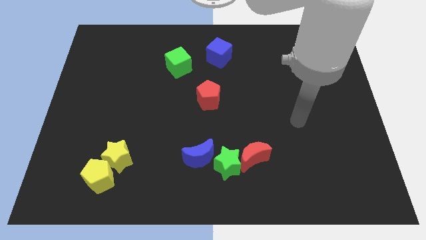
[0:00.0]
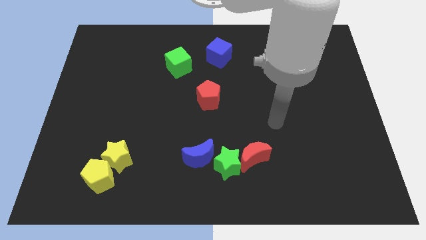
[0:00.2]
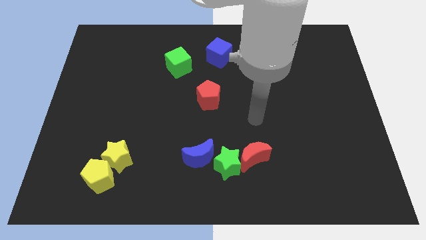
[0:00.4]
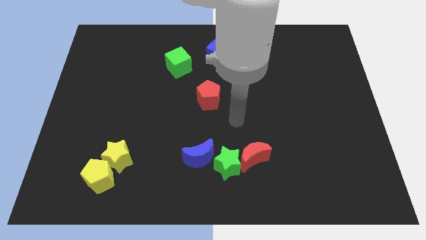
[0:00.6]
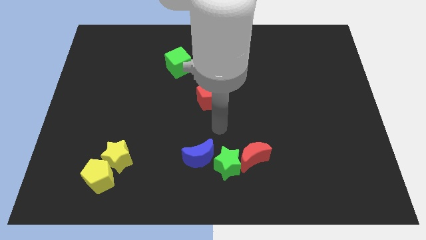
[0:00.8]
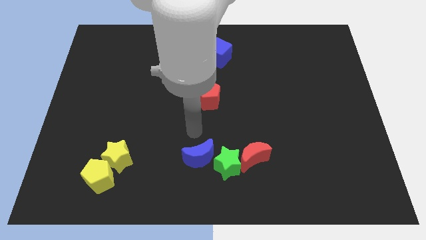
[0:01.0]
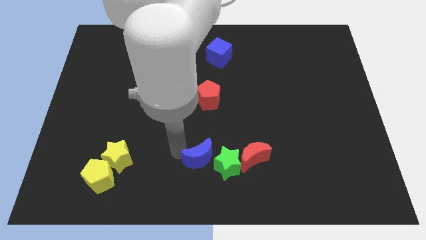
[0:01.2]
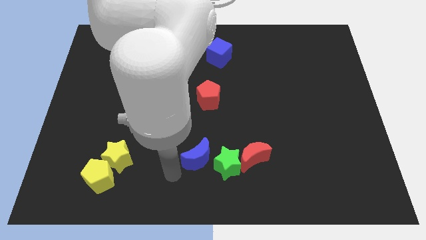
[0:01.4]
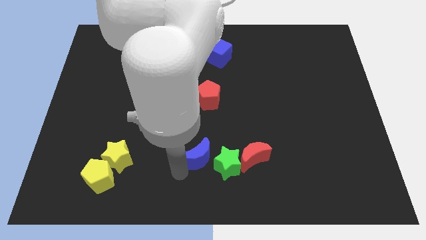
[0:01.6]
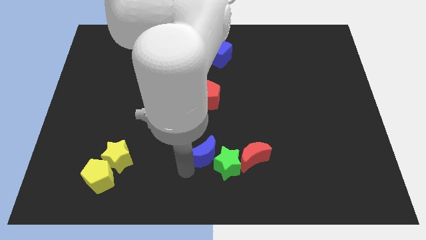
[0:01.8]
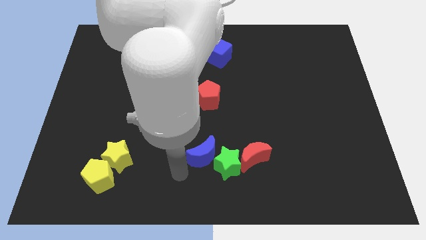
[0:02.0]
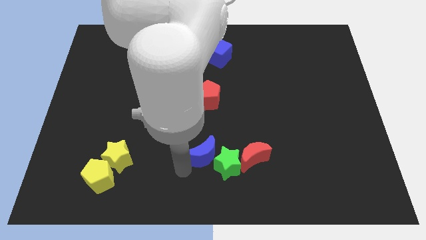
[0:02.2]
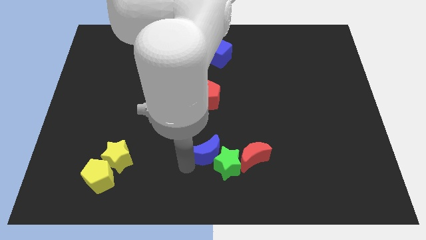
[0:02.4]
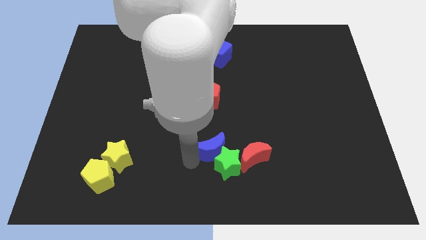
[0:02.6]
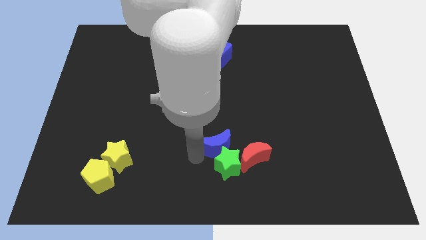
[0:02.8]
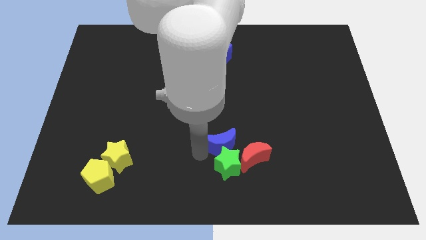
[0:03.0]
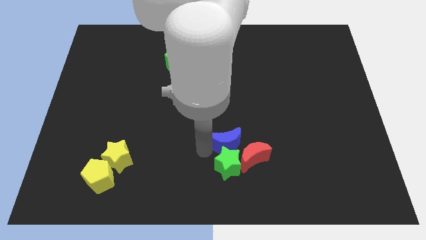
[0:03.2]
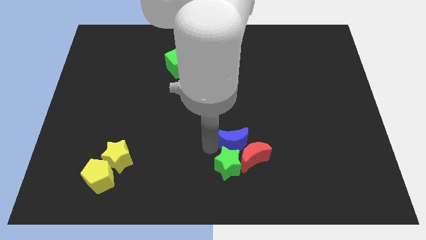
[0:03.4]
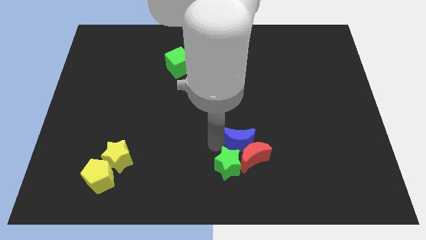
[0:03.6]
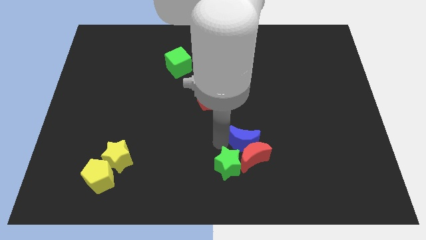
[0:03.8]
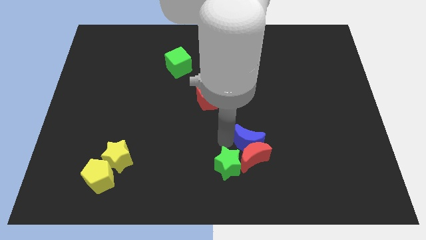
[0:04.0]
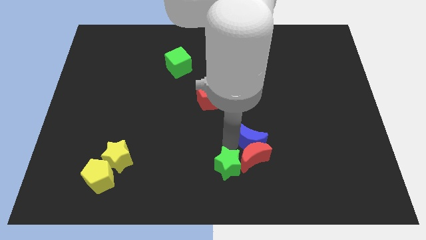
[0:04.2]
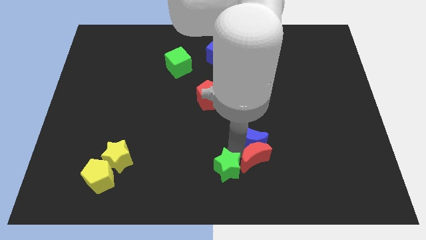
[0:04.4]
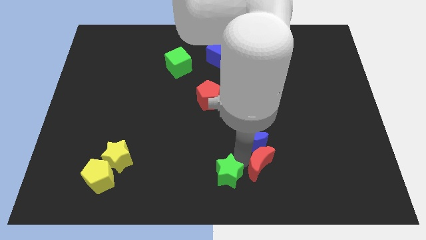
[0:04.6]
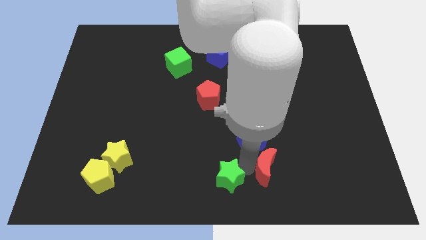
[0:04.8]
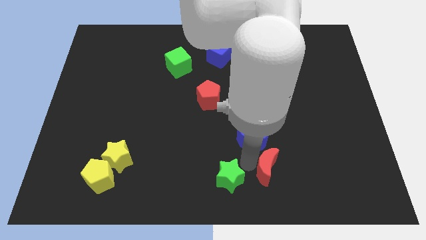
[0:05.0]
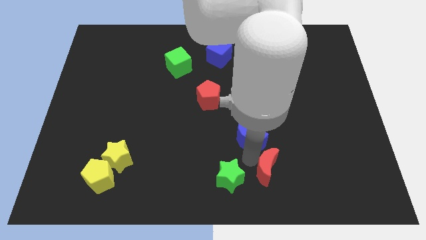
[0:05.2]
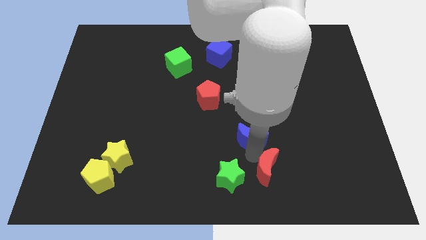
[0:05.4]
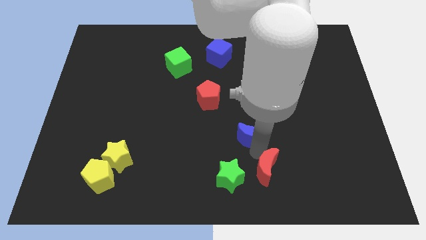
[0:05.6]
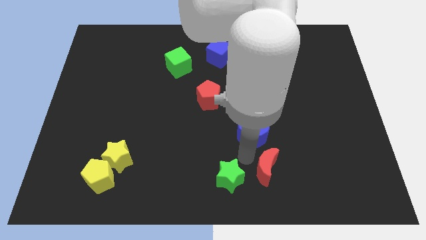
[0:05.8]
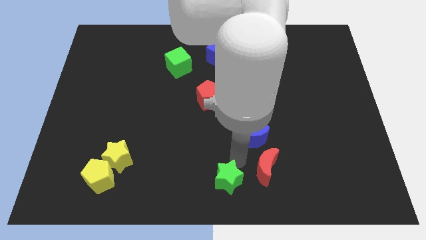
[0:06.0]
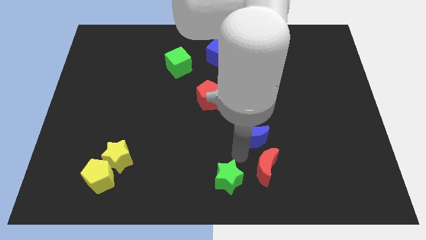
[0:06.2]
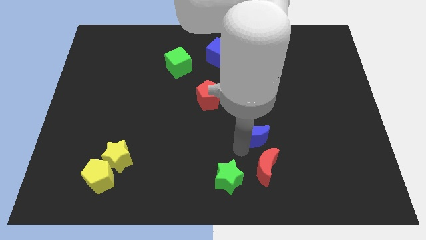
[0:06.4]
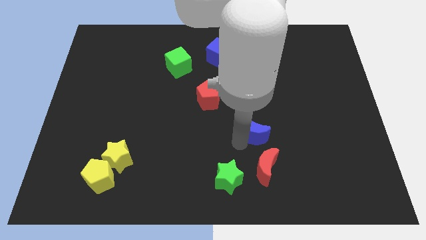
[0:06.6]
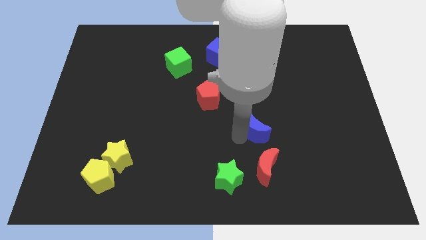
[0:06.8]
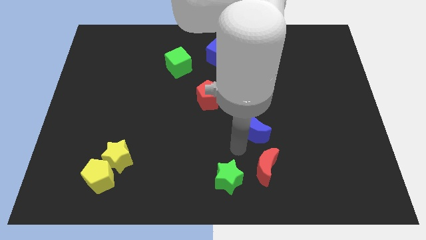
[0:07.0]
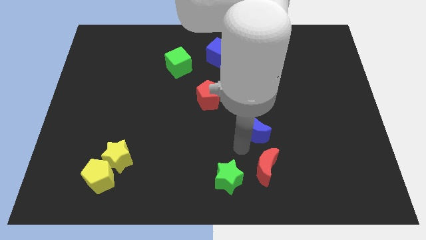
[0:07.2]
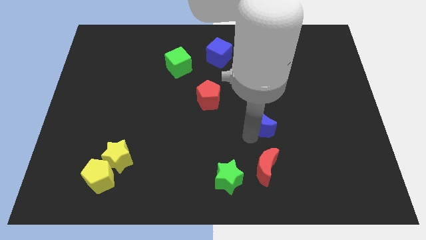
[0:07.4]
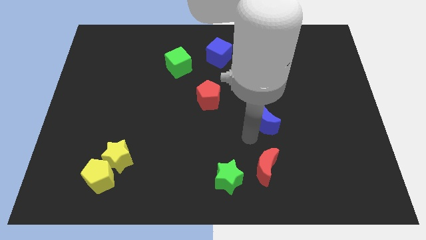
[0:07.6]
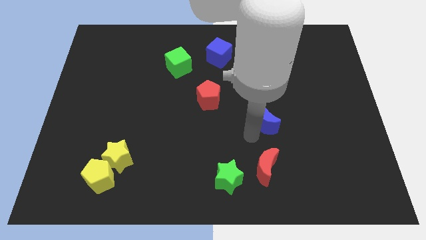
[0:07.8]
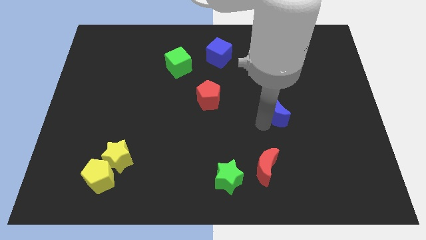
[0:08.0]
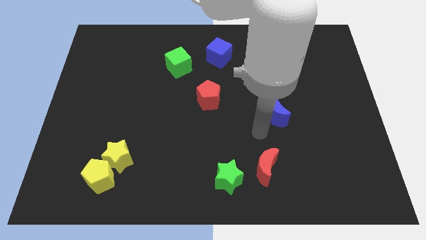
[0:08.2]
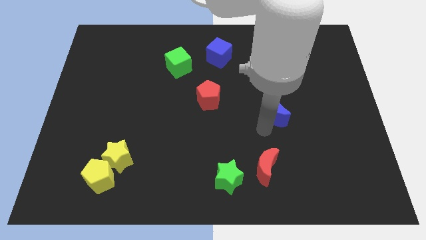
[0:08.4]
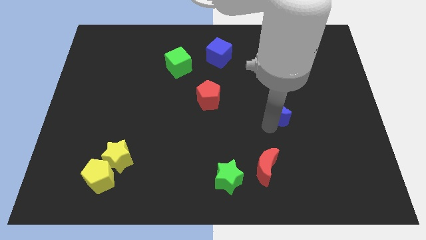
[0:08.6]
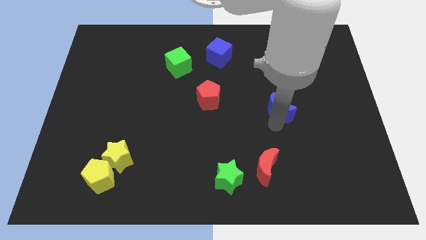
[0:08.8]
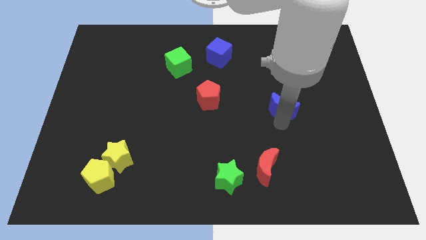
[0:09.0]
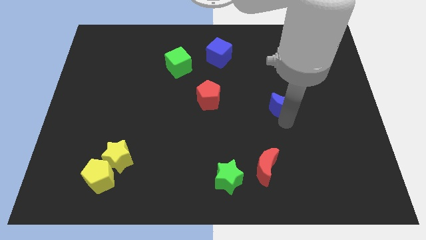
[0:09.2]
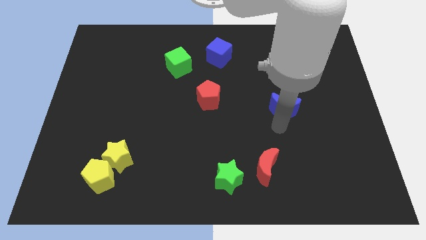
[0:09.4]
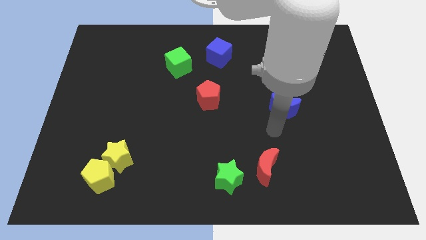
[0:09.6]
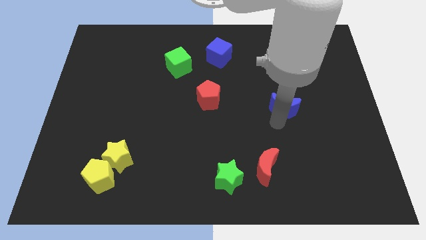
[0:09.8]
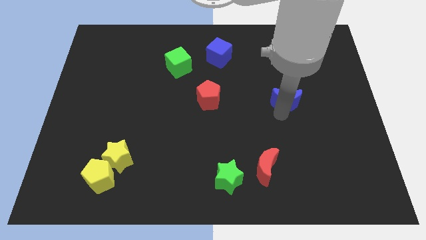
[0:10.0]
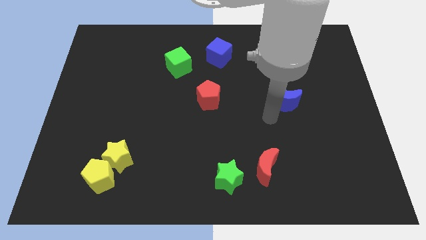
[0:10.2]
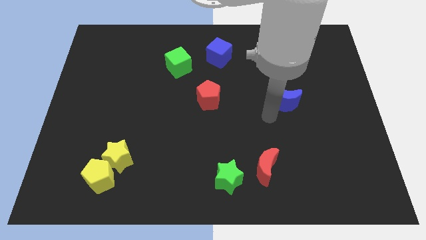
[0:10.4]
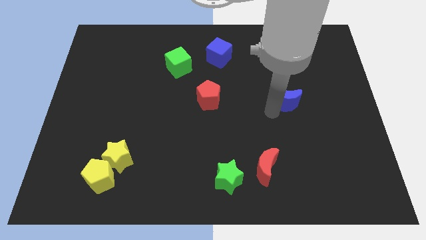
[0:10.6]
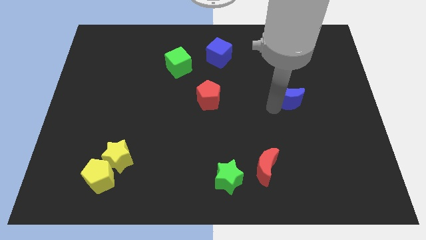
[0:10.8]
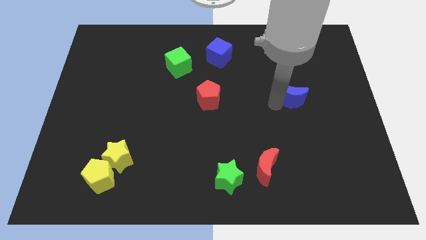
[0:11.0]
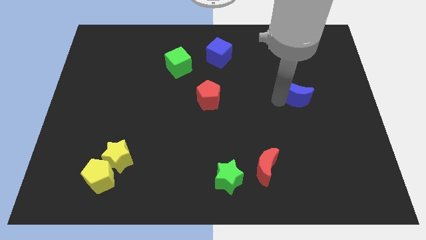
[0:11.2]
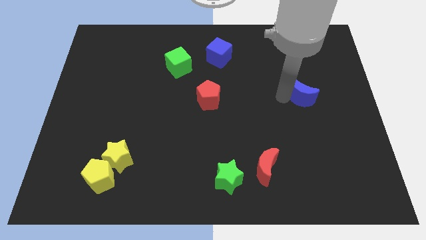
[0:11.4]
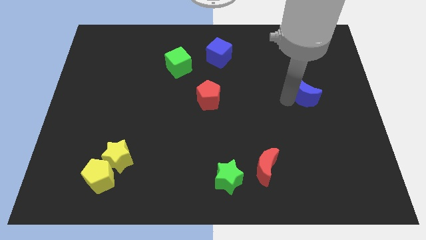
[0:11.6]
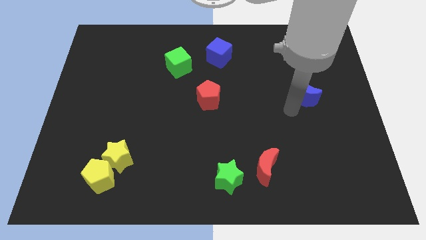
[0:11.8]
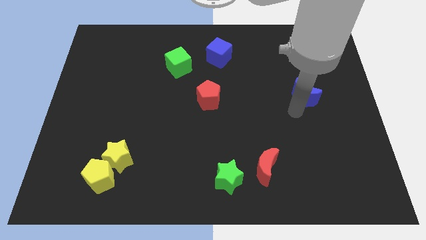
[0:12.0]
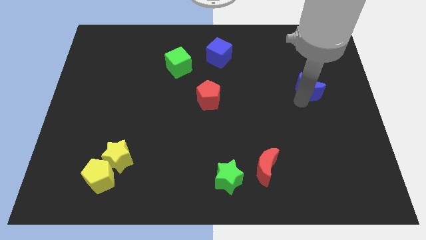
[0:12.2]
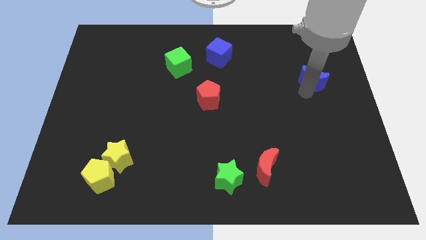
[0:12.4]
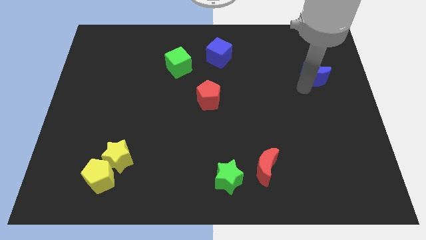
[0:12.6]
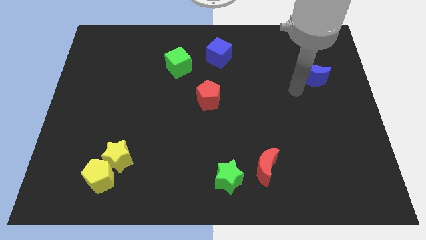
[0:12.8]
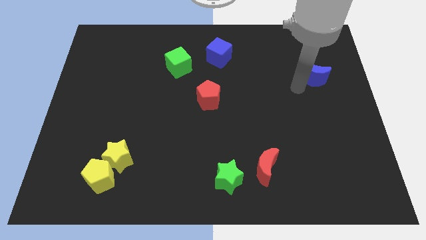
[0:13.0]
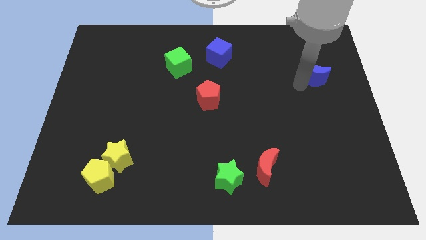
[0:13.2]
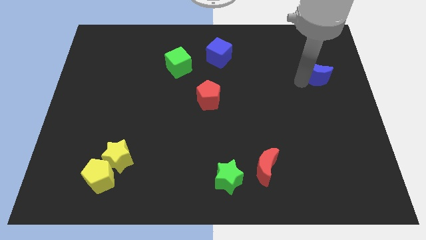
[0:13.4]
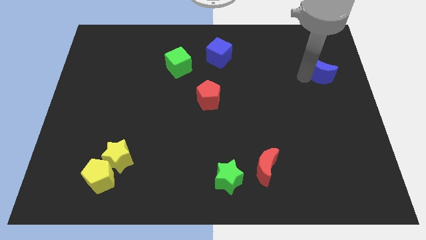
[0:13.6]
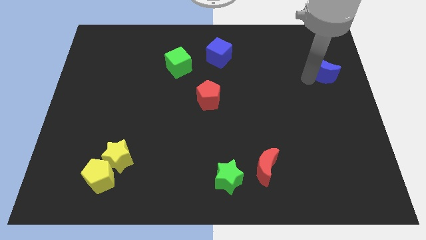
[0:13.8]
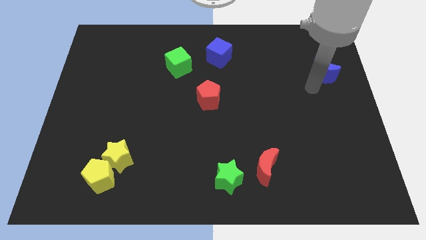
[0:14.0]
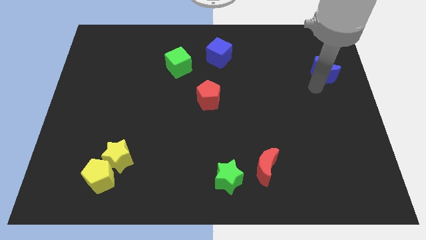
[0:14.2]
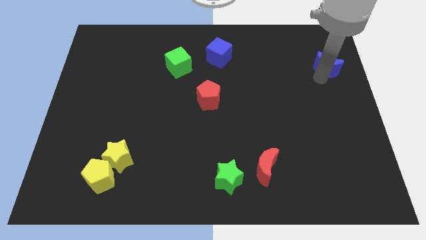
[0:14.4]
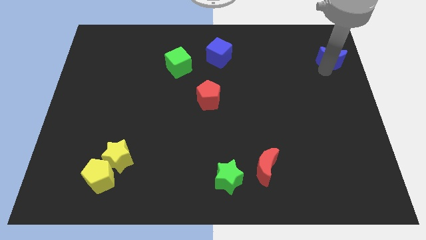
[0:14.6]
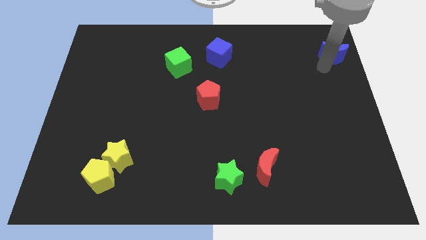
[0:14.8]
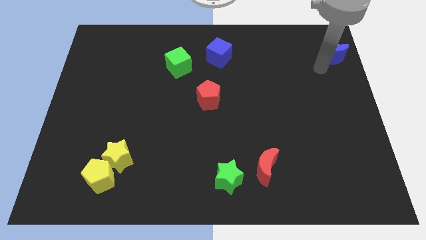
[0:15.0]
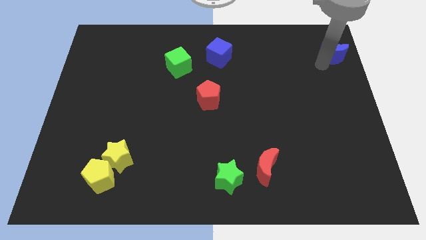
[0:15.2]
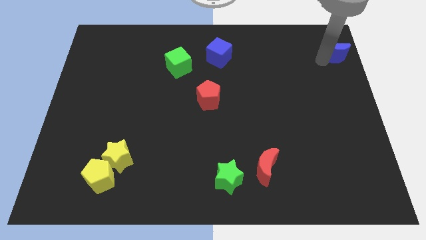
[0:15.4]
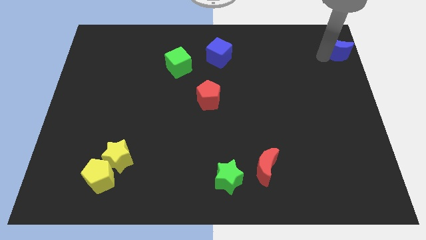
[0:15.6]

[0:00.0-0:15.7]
push the blue moon to the top right of the board
